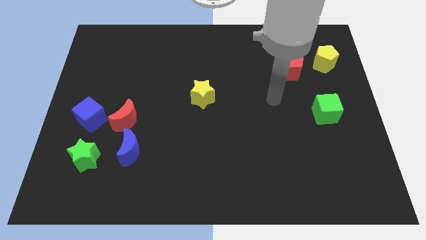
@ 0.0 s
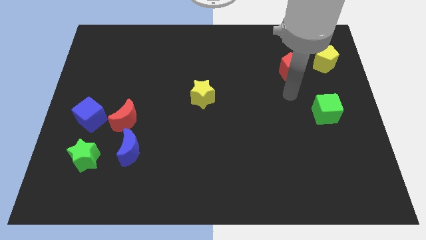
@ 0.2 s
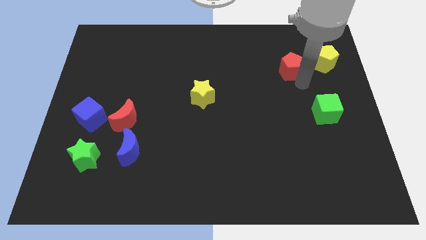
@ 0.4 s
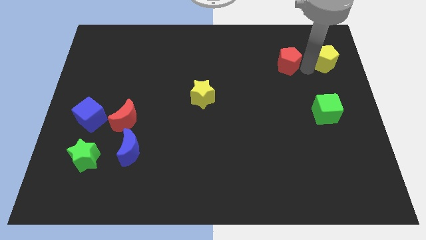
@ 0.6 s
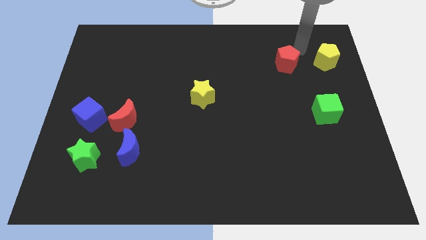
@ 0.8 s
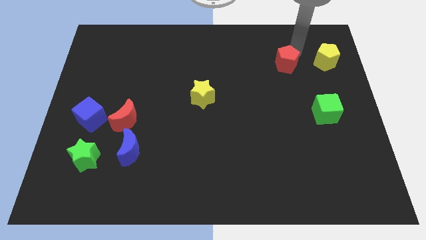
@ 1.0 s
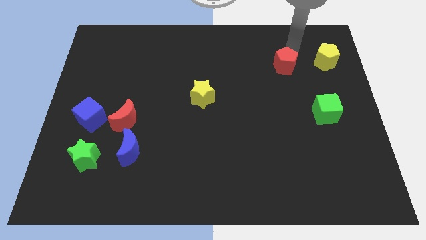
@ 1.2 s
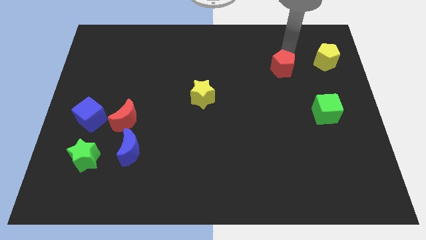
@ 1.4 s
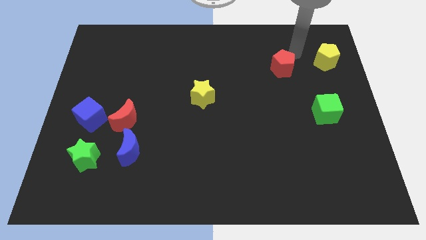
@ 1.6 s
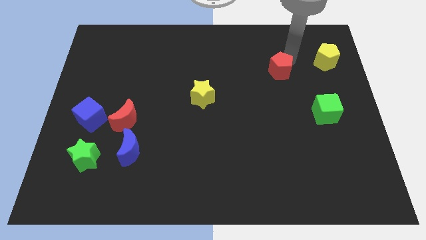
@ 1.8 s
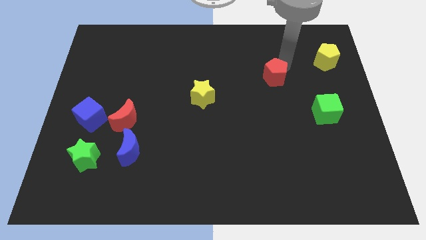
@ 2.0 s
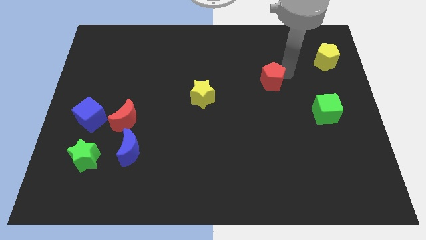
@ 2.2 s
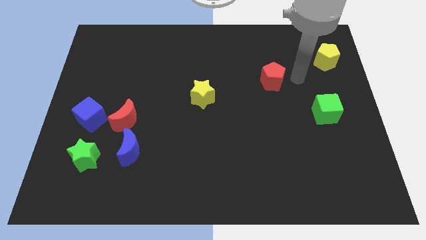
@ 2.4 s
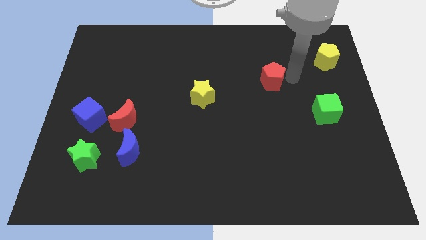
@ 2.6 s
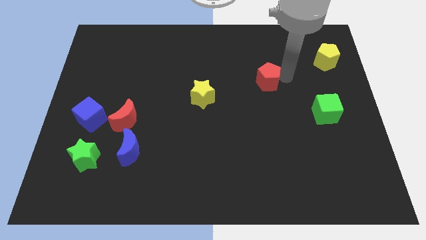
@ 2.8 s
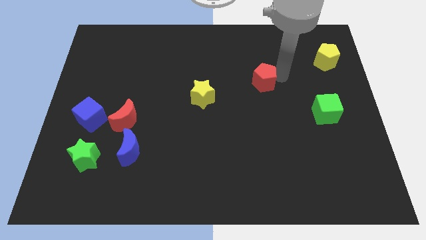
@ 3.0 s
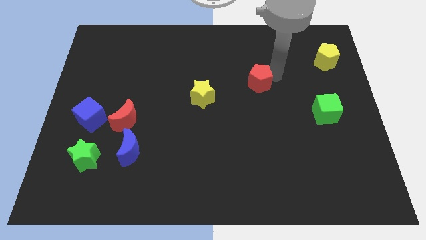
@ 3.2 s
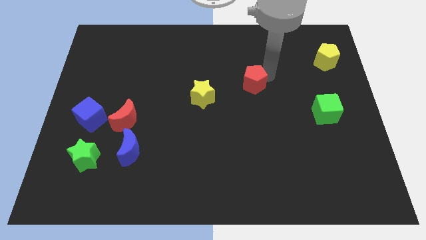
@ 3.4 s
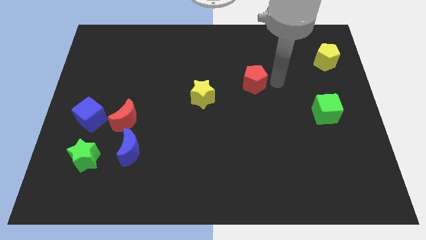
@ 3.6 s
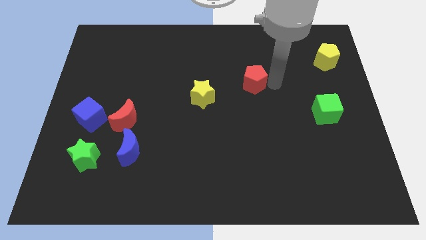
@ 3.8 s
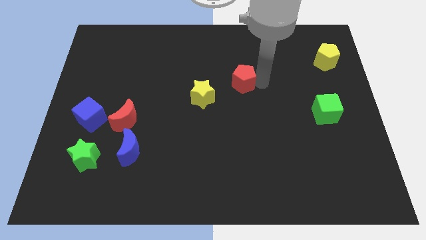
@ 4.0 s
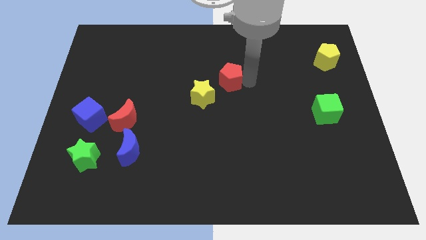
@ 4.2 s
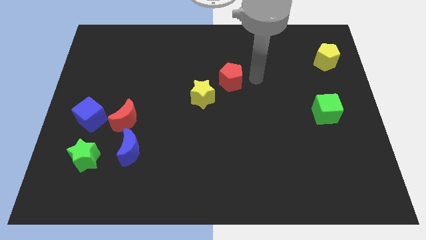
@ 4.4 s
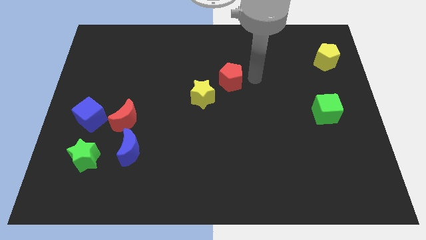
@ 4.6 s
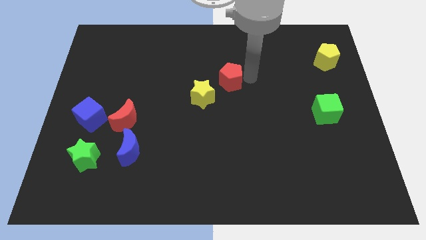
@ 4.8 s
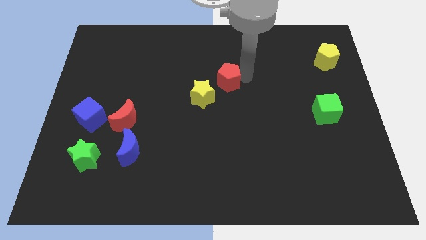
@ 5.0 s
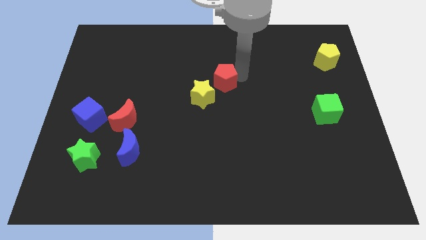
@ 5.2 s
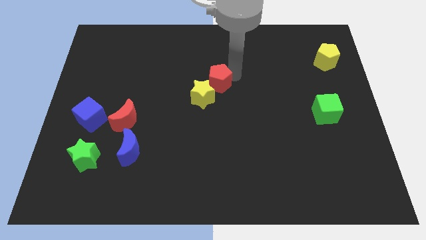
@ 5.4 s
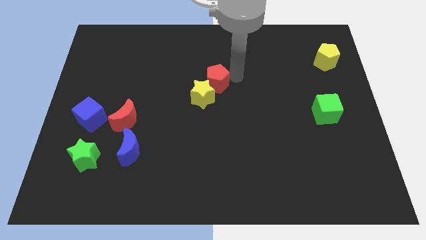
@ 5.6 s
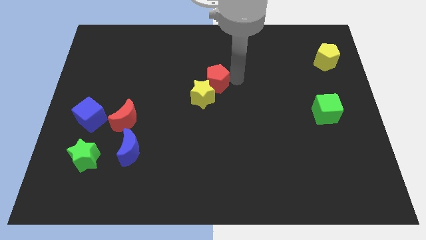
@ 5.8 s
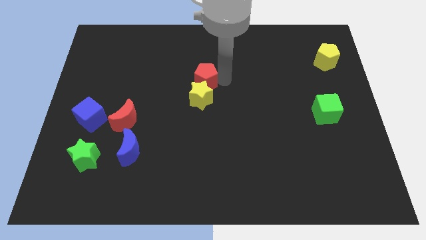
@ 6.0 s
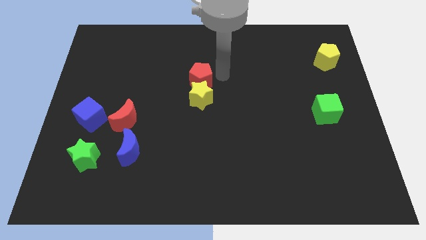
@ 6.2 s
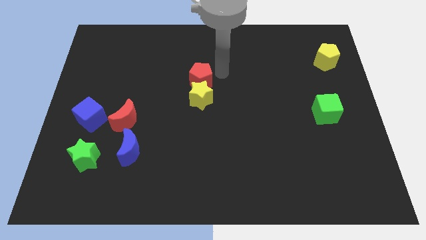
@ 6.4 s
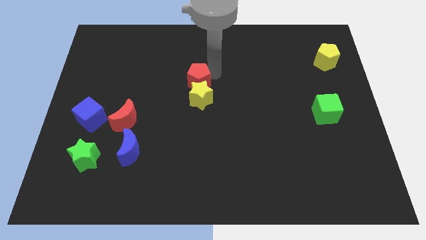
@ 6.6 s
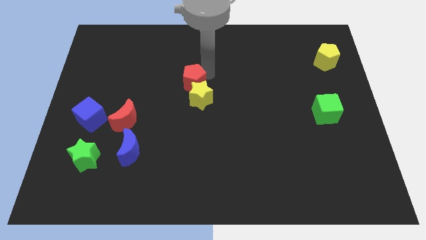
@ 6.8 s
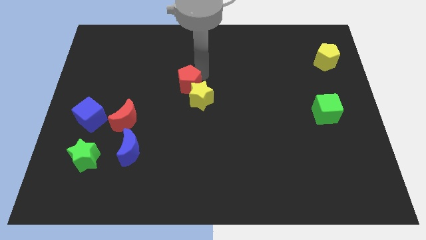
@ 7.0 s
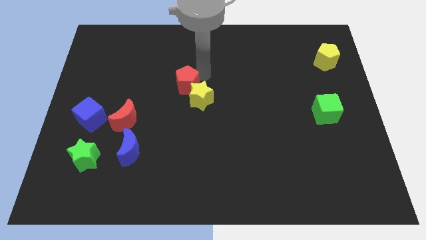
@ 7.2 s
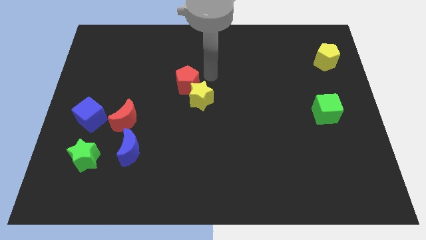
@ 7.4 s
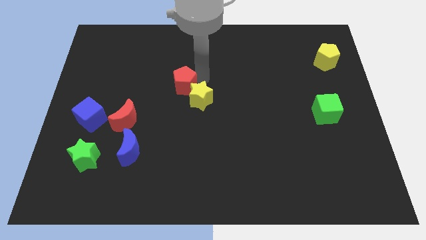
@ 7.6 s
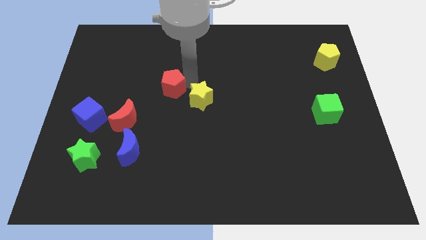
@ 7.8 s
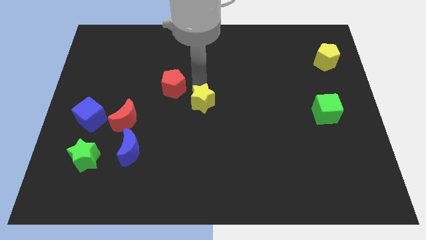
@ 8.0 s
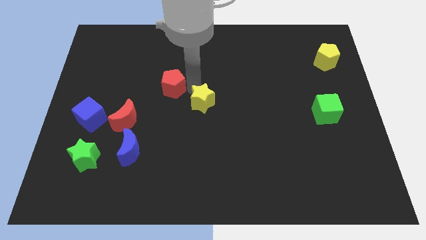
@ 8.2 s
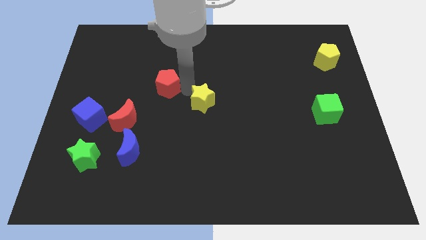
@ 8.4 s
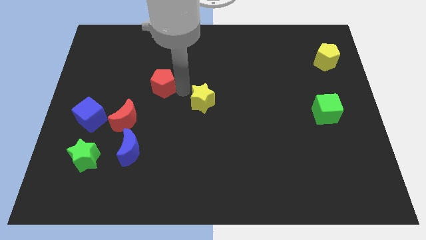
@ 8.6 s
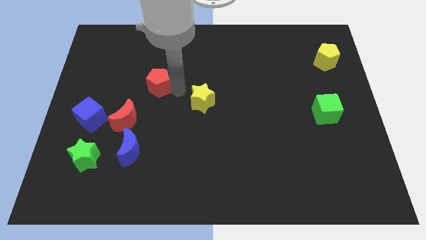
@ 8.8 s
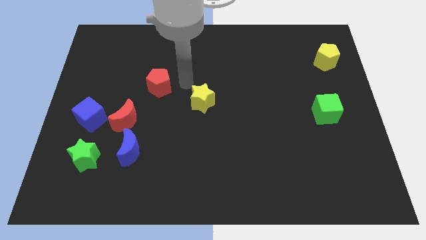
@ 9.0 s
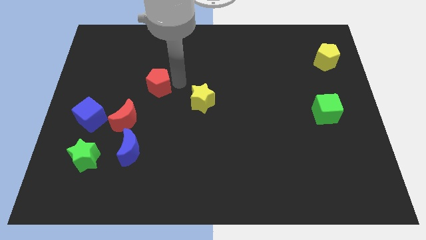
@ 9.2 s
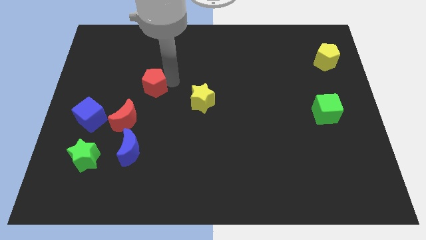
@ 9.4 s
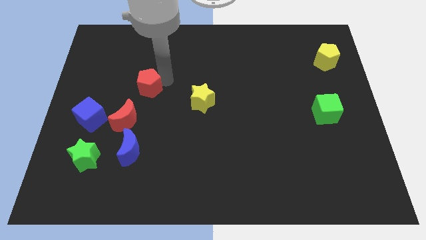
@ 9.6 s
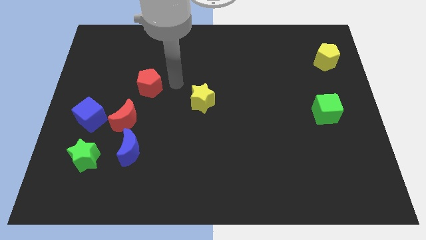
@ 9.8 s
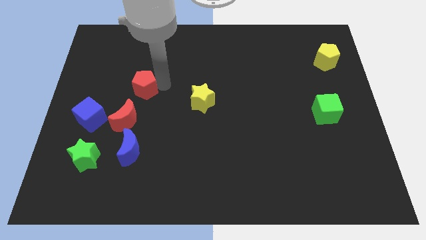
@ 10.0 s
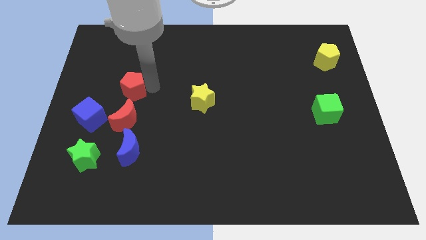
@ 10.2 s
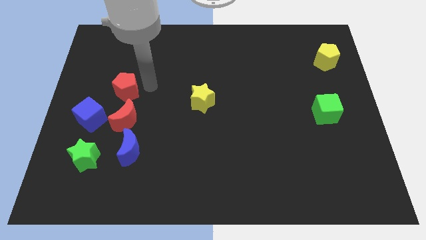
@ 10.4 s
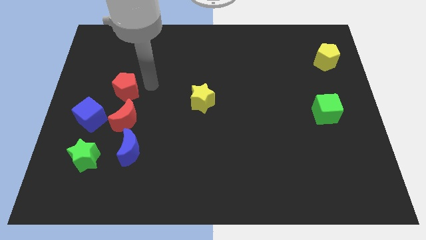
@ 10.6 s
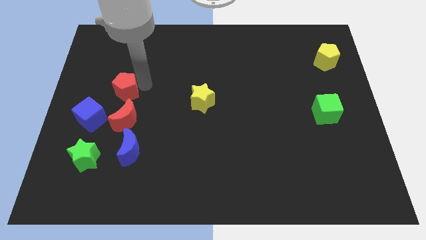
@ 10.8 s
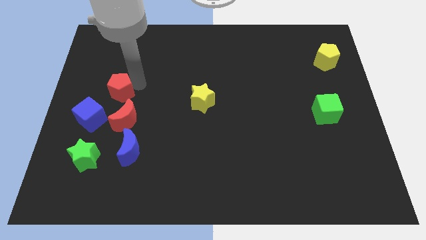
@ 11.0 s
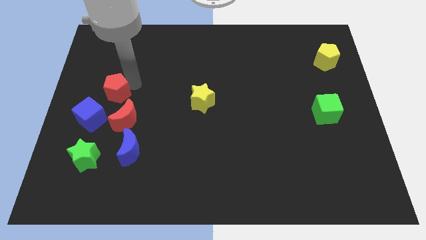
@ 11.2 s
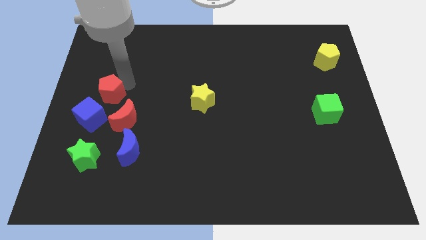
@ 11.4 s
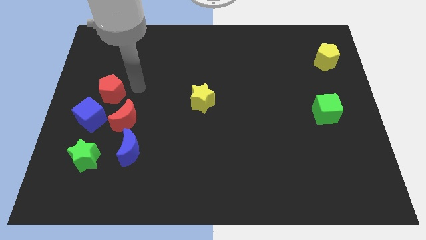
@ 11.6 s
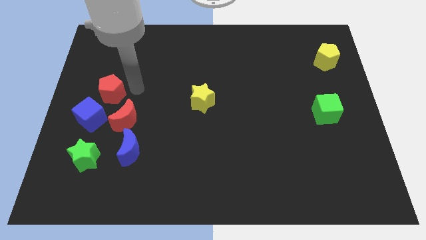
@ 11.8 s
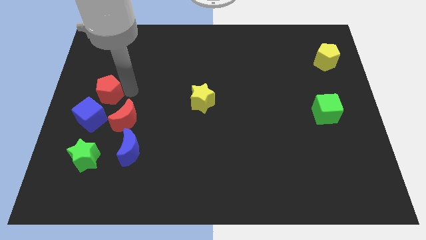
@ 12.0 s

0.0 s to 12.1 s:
move the red pentagon to the left side

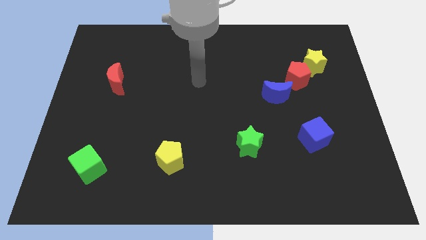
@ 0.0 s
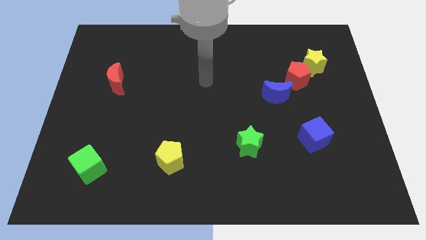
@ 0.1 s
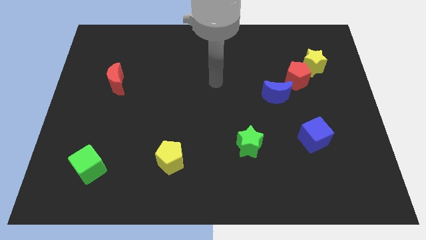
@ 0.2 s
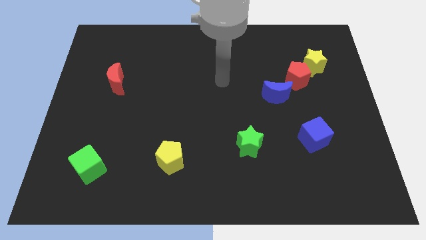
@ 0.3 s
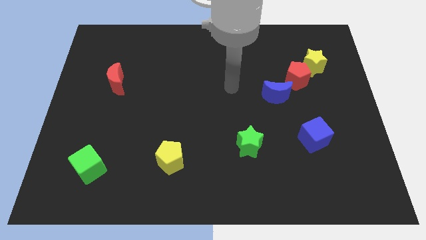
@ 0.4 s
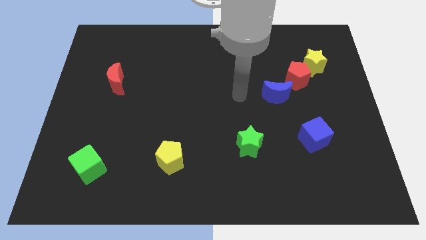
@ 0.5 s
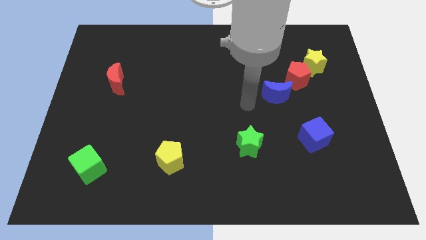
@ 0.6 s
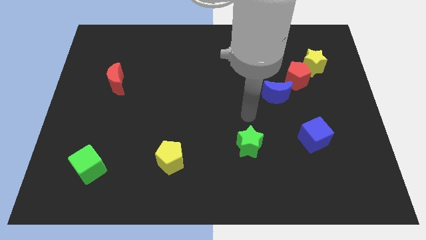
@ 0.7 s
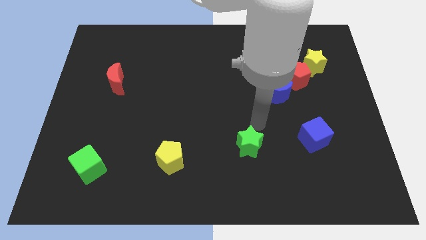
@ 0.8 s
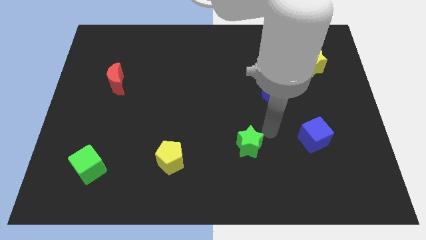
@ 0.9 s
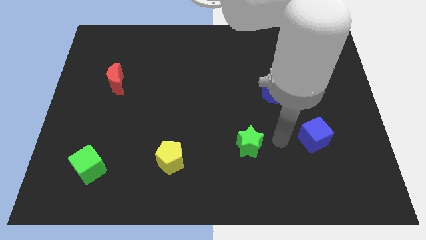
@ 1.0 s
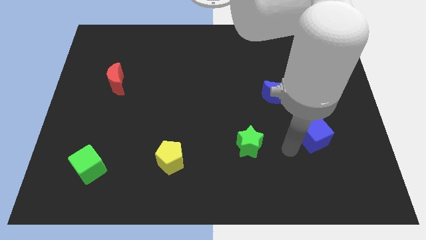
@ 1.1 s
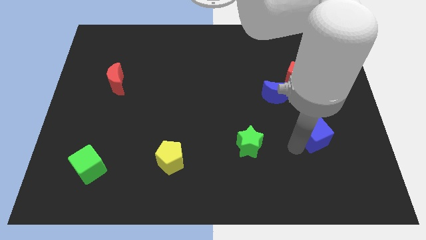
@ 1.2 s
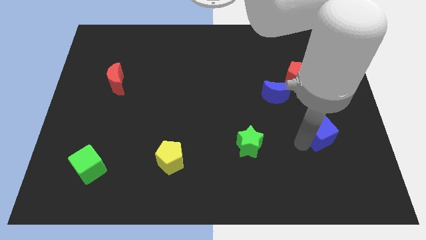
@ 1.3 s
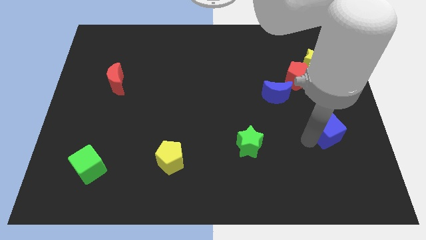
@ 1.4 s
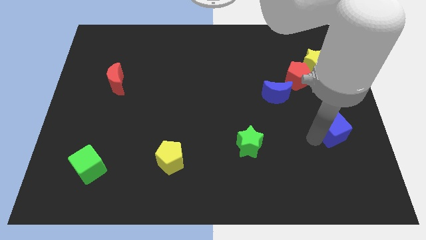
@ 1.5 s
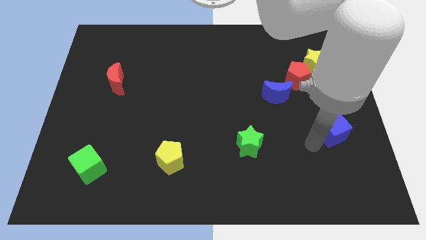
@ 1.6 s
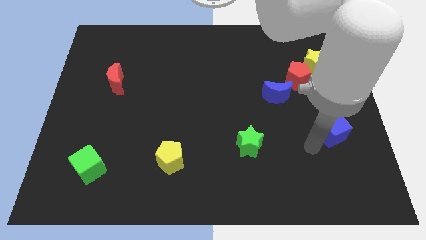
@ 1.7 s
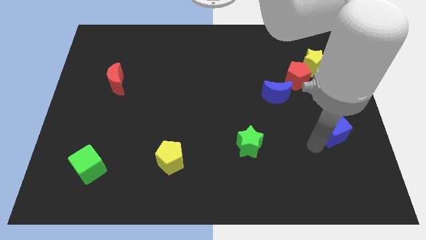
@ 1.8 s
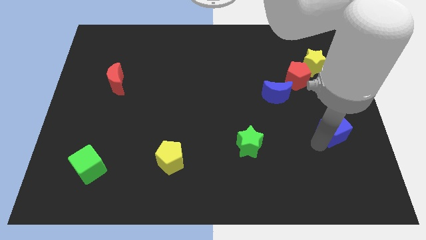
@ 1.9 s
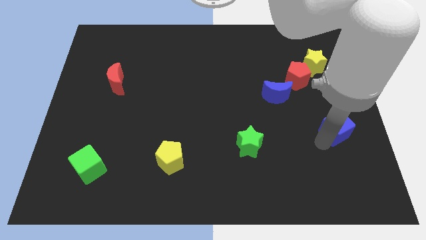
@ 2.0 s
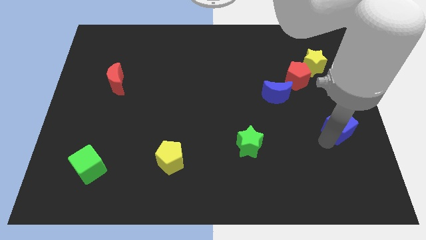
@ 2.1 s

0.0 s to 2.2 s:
move the blue cube to the right side
